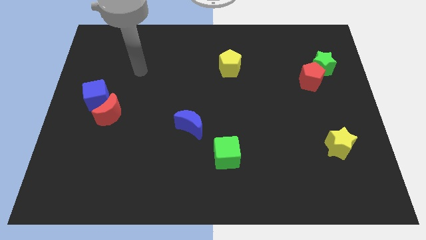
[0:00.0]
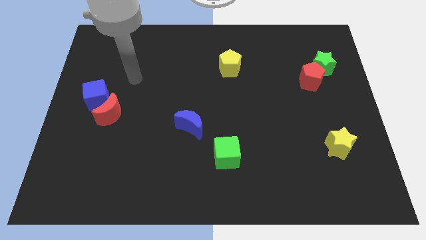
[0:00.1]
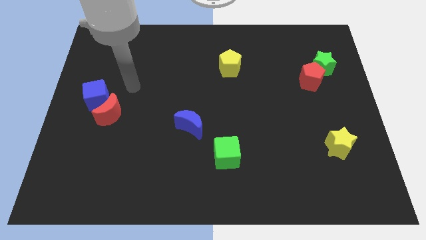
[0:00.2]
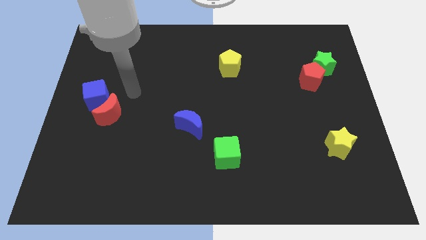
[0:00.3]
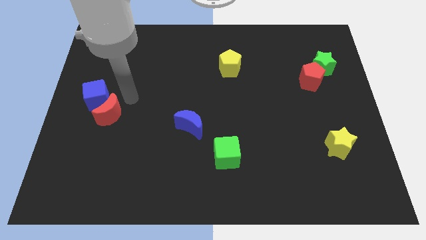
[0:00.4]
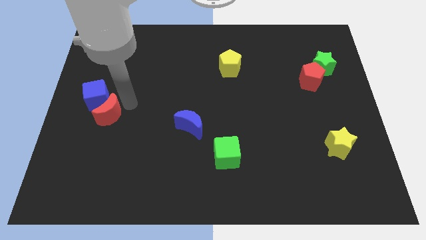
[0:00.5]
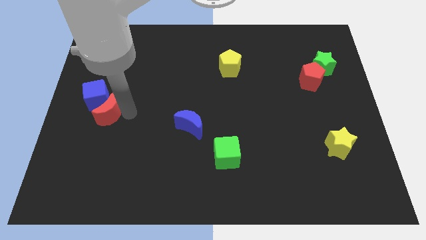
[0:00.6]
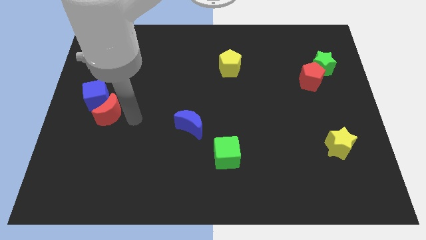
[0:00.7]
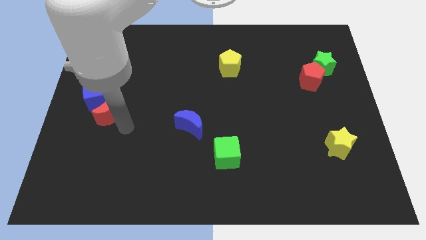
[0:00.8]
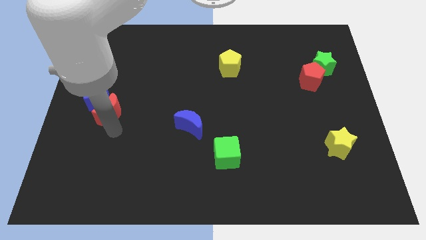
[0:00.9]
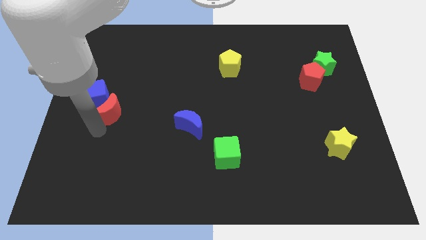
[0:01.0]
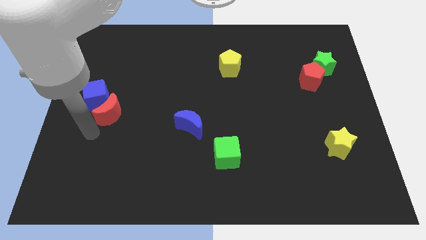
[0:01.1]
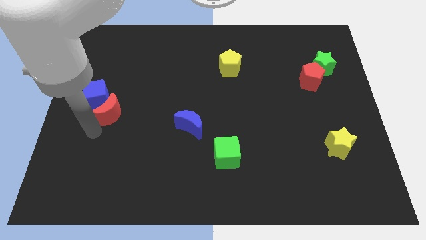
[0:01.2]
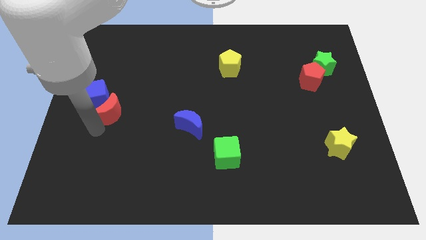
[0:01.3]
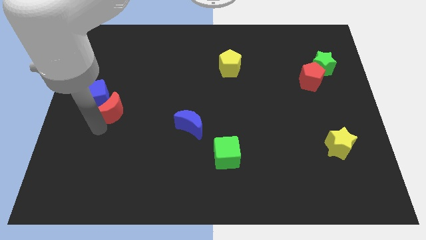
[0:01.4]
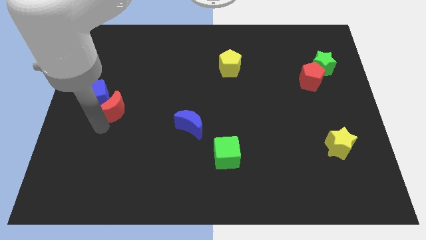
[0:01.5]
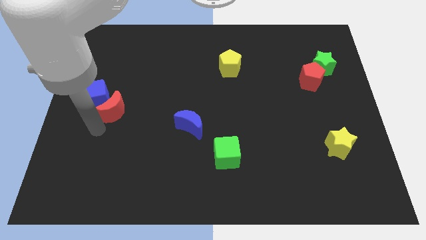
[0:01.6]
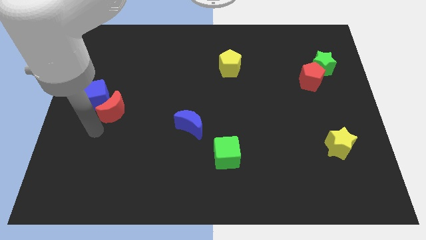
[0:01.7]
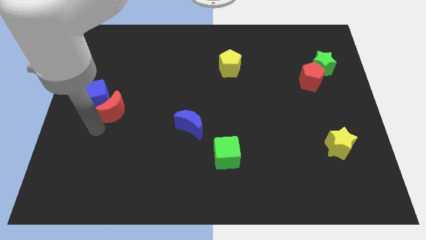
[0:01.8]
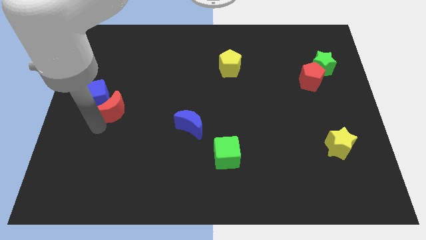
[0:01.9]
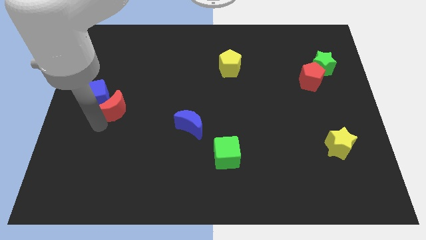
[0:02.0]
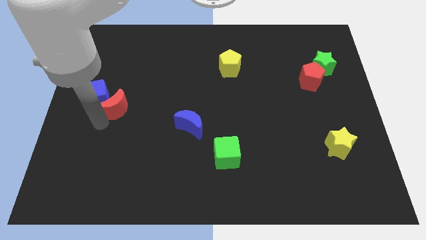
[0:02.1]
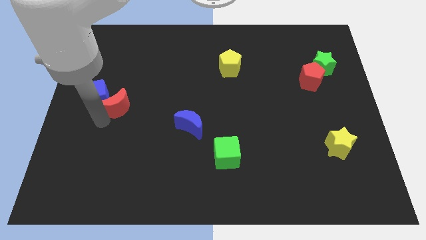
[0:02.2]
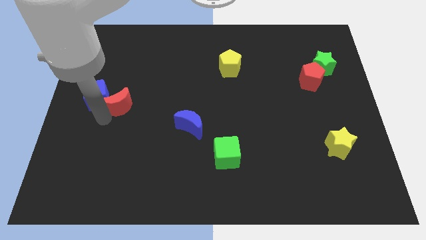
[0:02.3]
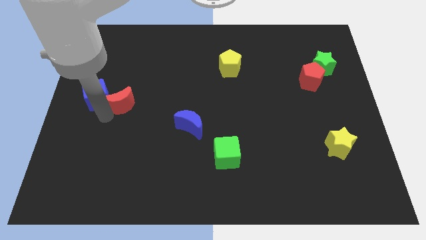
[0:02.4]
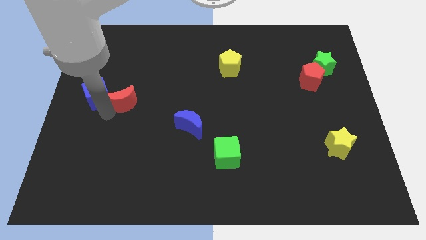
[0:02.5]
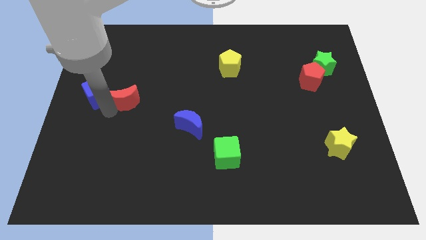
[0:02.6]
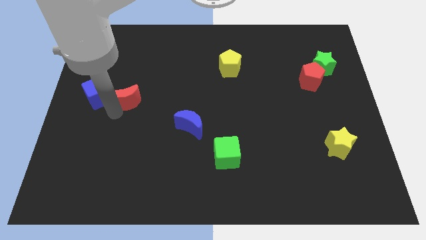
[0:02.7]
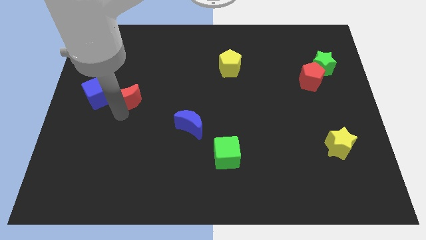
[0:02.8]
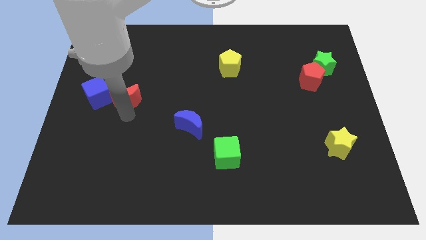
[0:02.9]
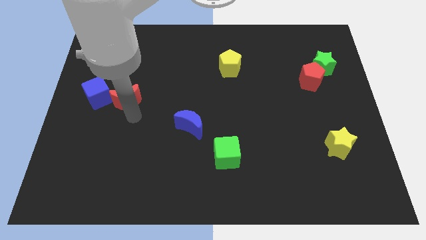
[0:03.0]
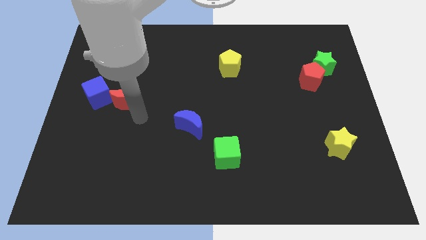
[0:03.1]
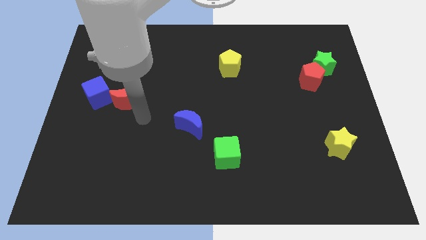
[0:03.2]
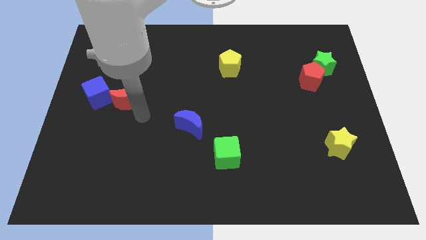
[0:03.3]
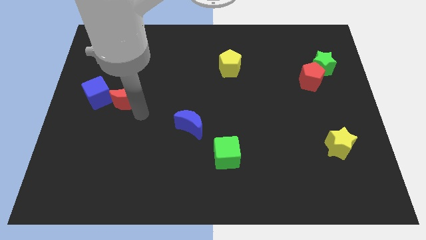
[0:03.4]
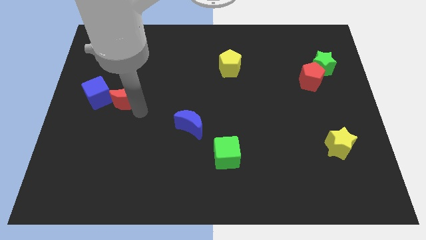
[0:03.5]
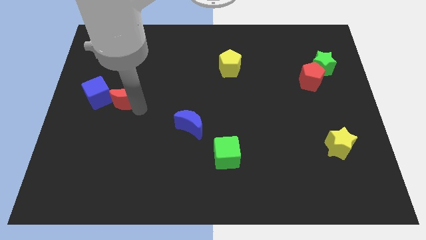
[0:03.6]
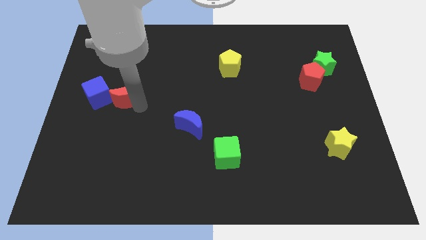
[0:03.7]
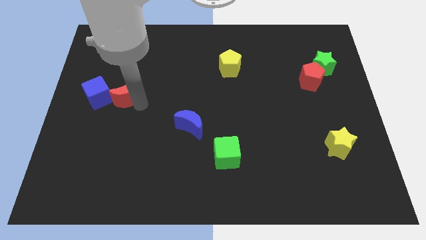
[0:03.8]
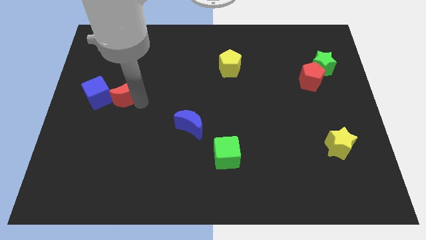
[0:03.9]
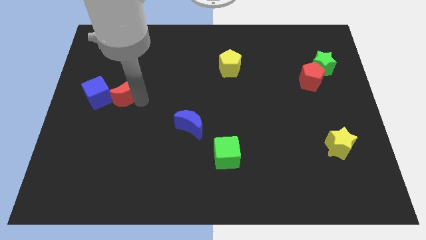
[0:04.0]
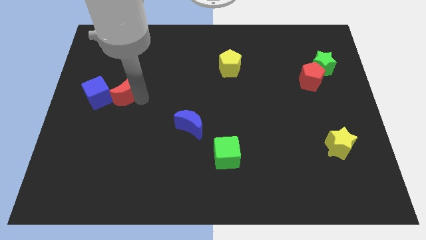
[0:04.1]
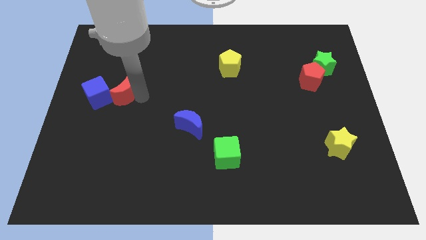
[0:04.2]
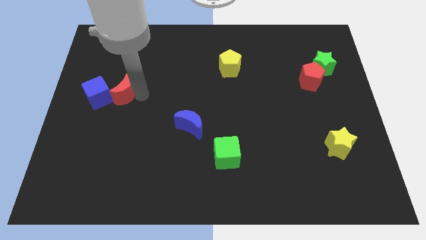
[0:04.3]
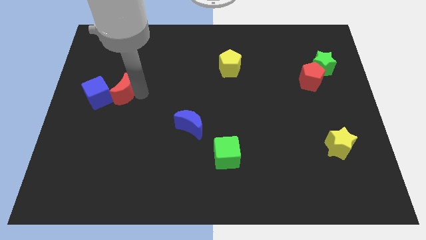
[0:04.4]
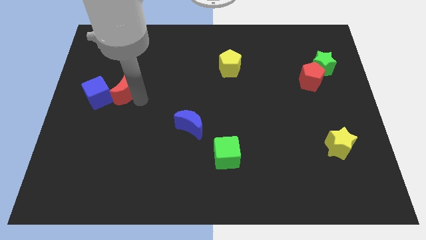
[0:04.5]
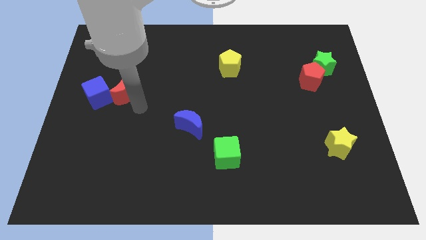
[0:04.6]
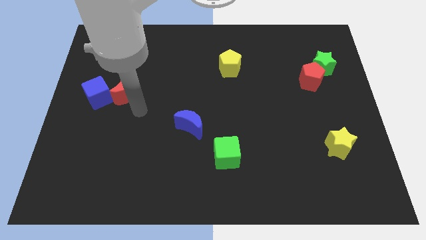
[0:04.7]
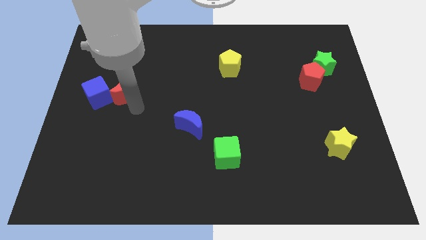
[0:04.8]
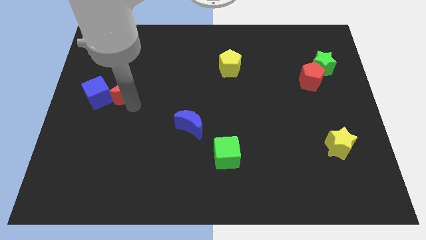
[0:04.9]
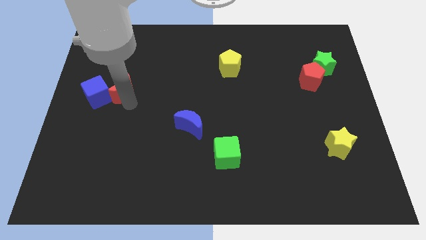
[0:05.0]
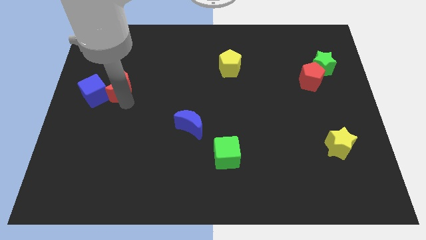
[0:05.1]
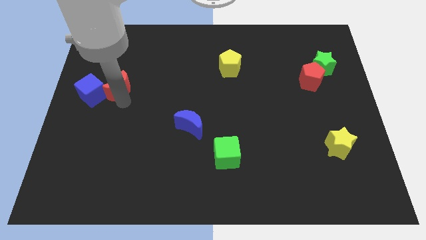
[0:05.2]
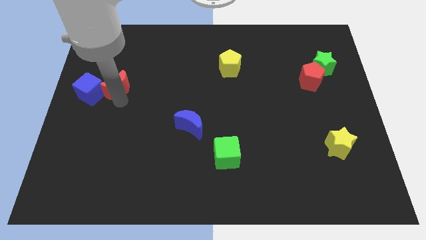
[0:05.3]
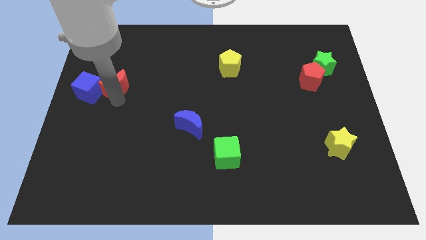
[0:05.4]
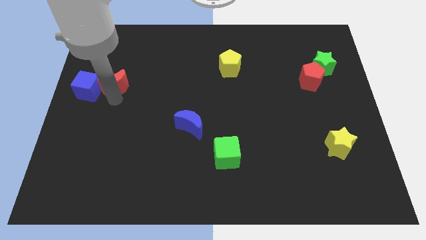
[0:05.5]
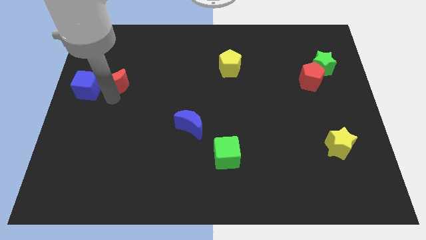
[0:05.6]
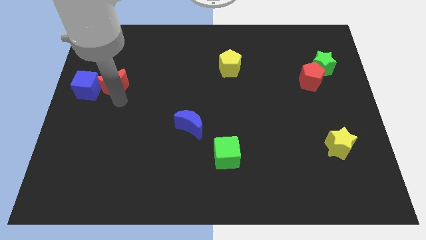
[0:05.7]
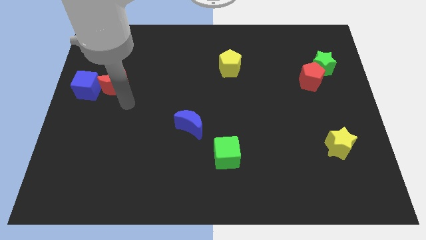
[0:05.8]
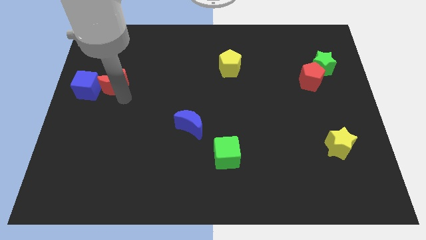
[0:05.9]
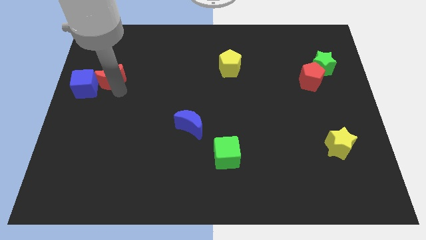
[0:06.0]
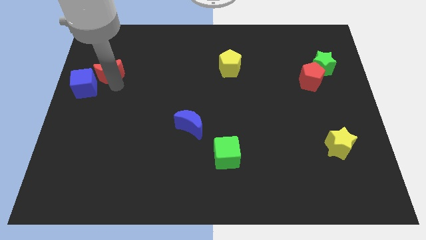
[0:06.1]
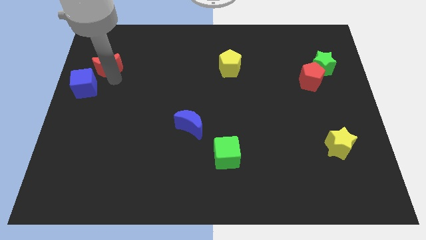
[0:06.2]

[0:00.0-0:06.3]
slide the red moon to the top of the blue cube
